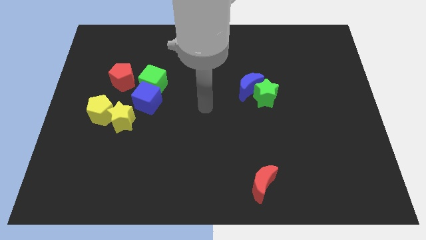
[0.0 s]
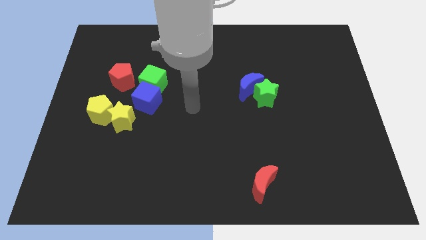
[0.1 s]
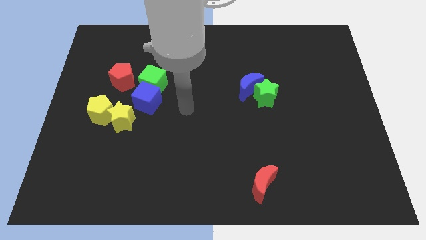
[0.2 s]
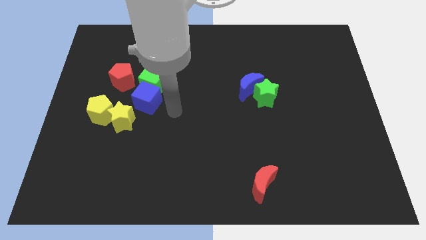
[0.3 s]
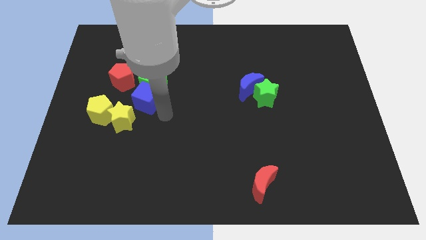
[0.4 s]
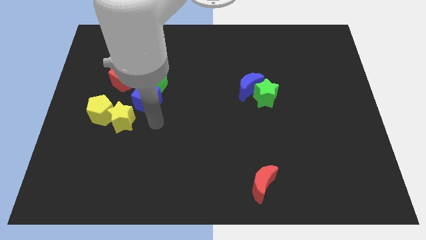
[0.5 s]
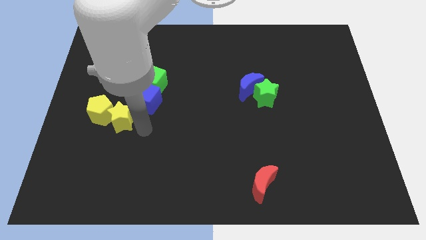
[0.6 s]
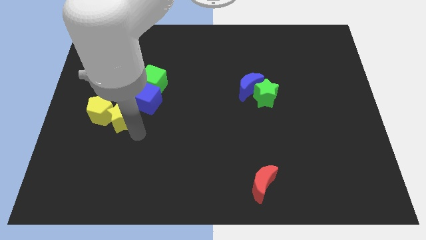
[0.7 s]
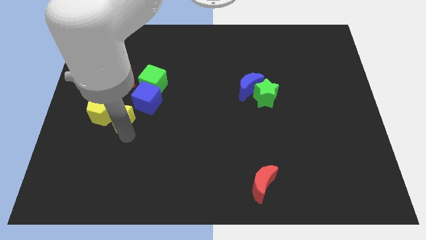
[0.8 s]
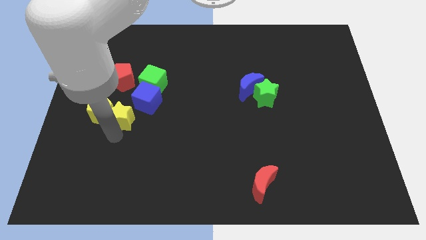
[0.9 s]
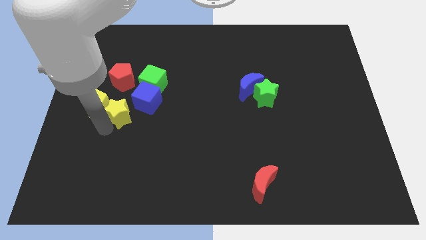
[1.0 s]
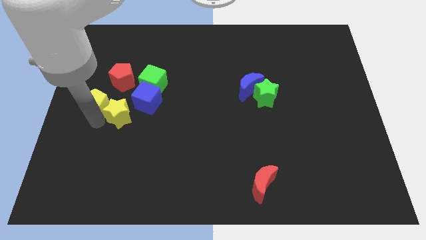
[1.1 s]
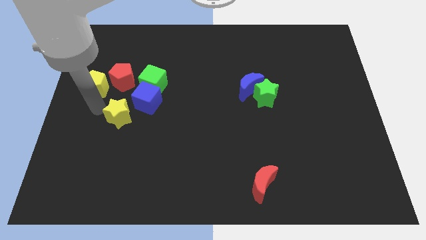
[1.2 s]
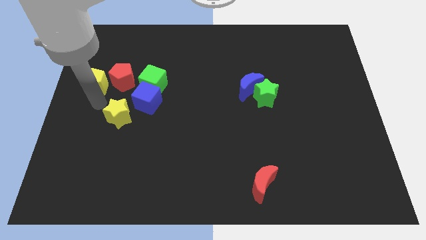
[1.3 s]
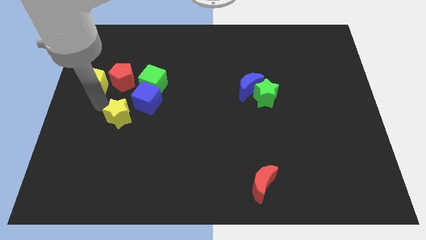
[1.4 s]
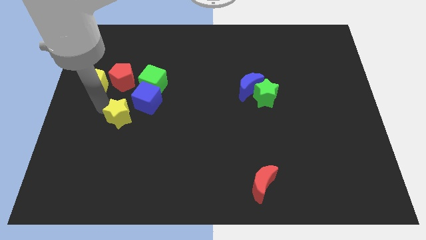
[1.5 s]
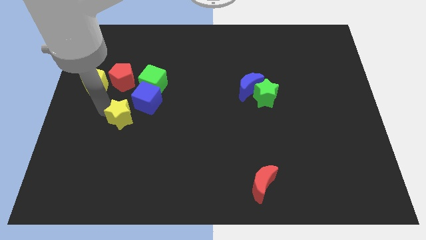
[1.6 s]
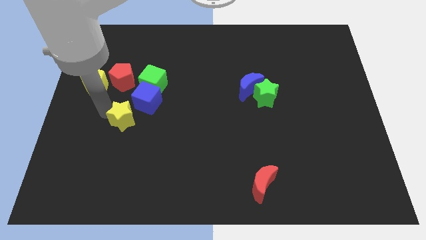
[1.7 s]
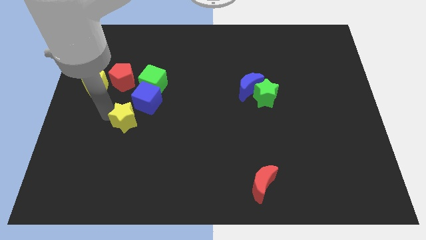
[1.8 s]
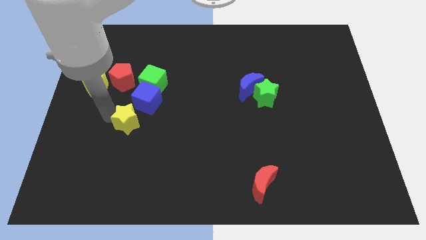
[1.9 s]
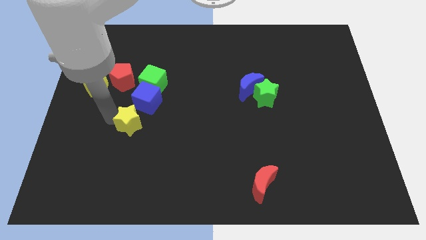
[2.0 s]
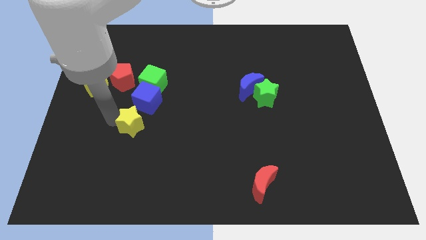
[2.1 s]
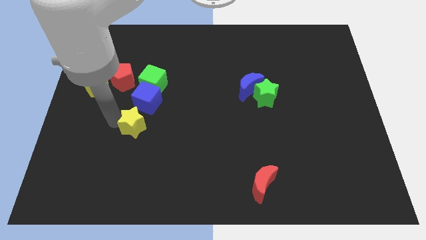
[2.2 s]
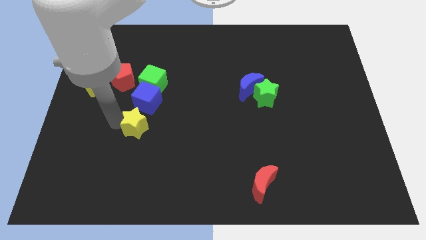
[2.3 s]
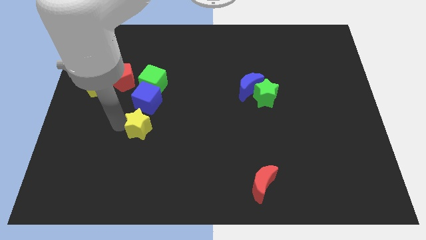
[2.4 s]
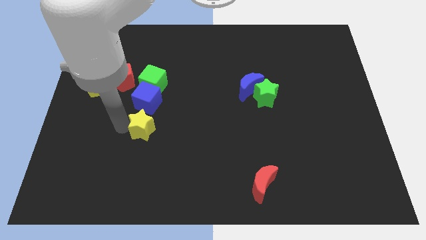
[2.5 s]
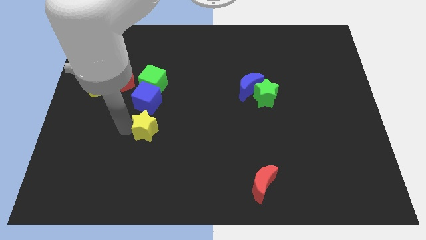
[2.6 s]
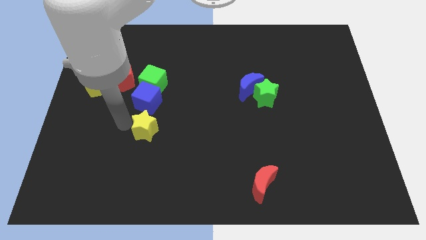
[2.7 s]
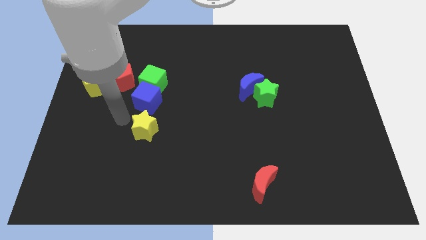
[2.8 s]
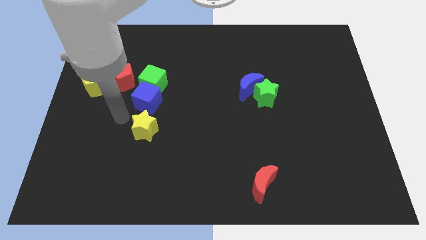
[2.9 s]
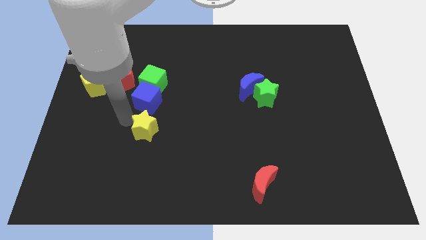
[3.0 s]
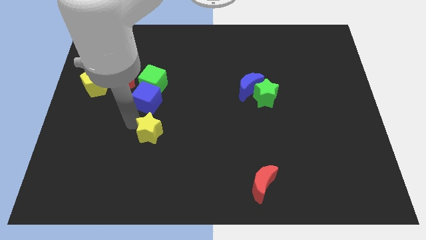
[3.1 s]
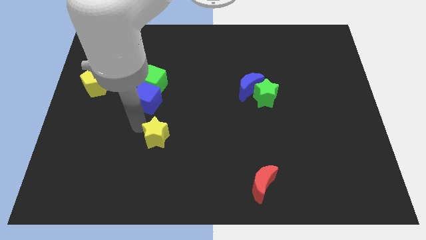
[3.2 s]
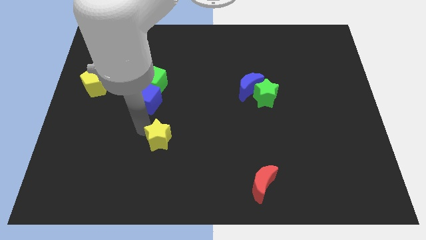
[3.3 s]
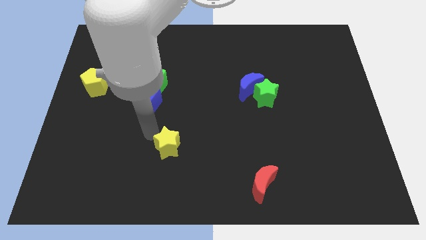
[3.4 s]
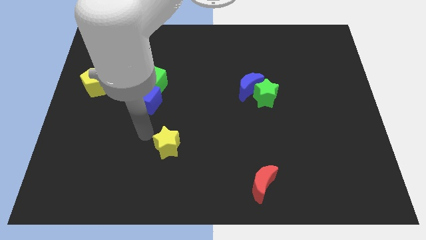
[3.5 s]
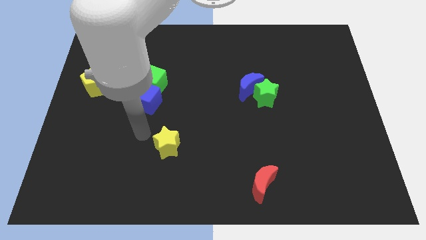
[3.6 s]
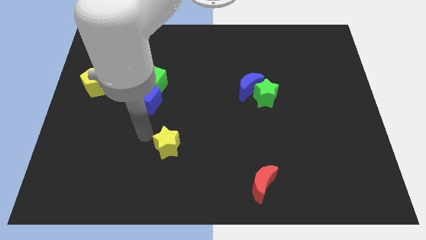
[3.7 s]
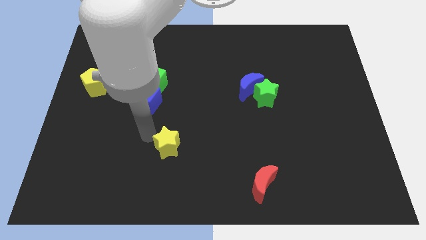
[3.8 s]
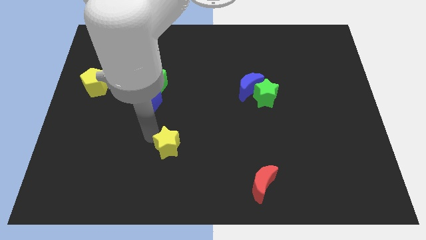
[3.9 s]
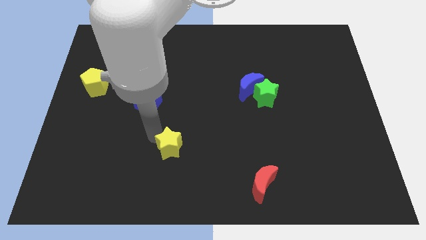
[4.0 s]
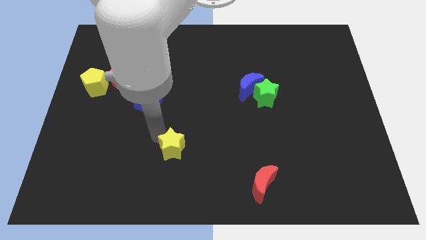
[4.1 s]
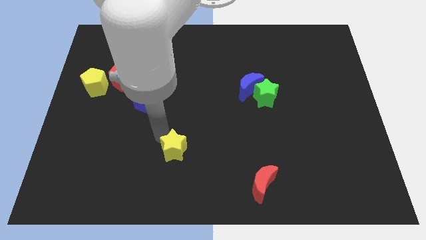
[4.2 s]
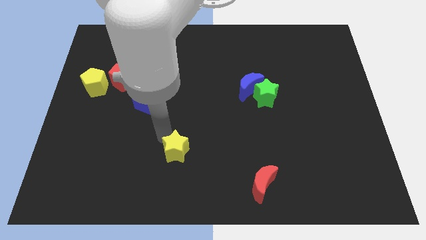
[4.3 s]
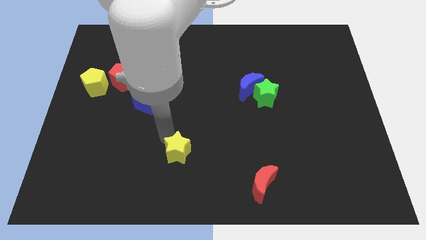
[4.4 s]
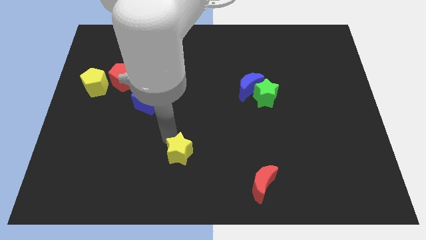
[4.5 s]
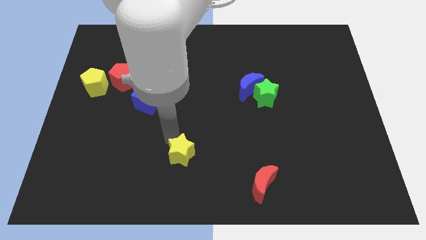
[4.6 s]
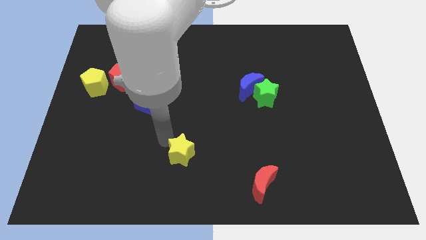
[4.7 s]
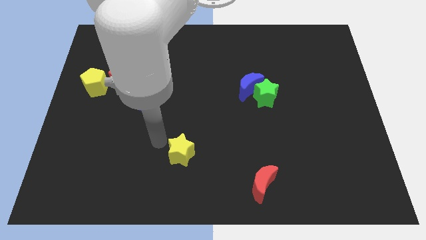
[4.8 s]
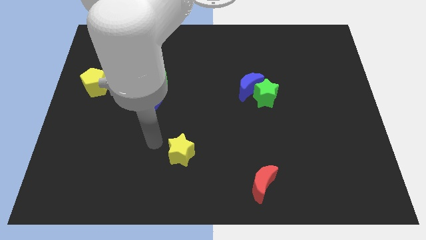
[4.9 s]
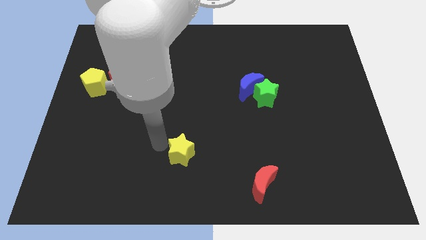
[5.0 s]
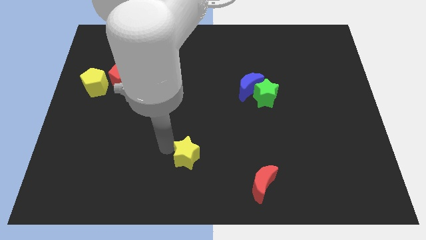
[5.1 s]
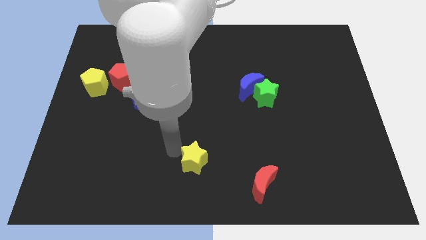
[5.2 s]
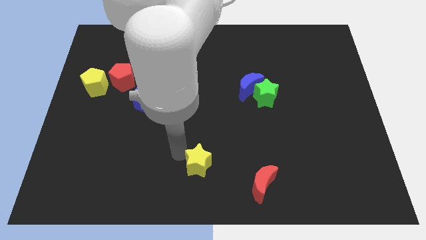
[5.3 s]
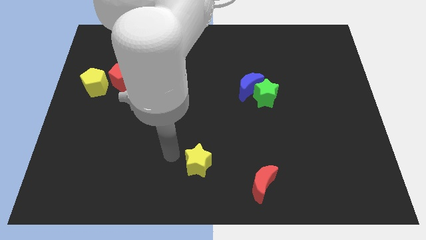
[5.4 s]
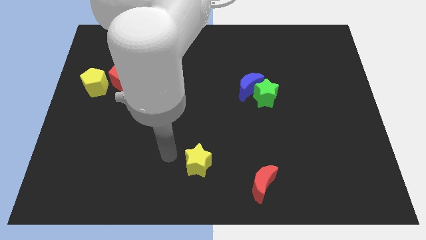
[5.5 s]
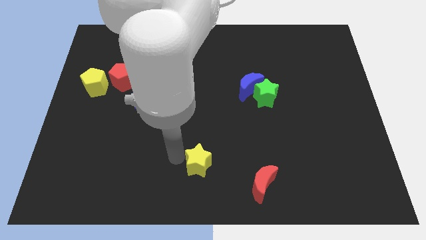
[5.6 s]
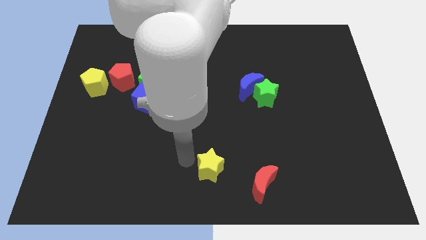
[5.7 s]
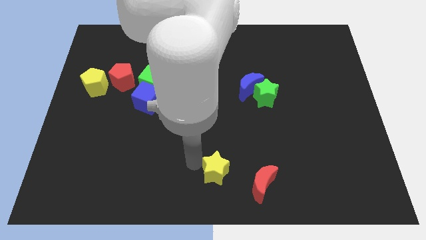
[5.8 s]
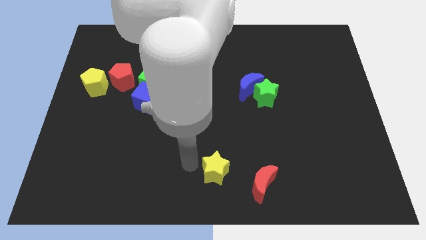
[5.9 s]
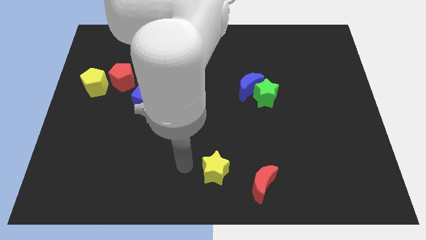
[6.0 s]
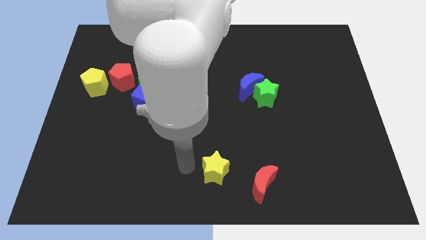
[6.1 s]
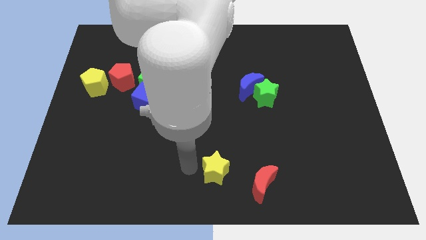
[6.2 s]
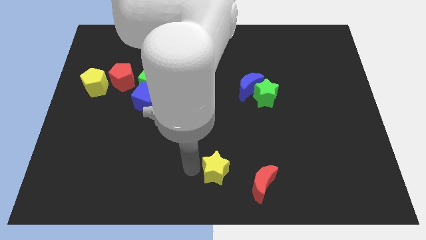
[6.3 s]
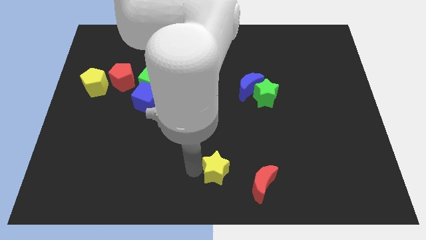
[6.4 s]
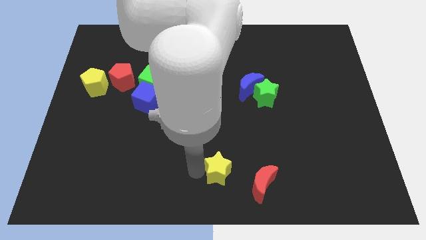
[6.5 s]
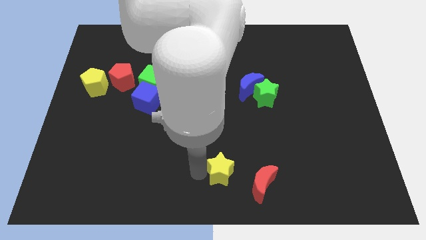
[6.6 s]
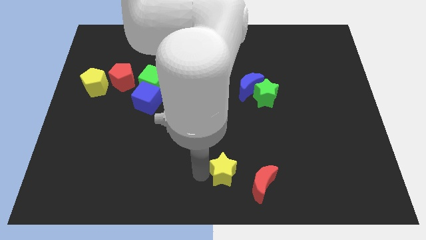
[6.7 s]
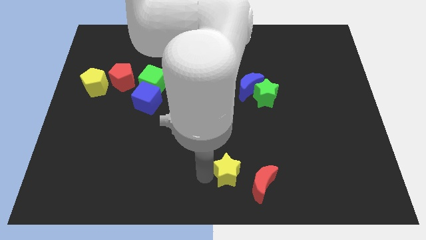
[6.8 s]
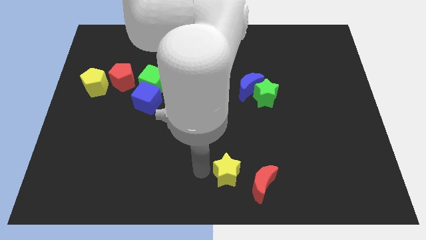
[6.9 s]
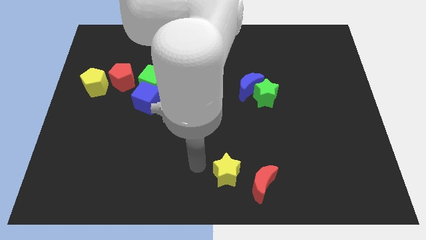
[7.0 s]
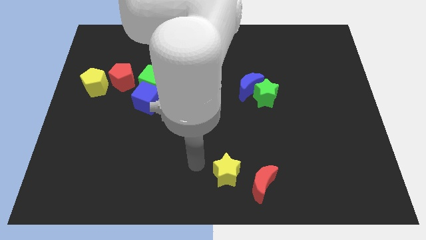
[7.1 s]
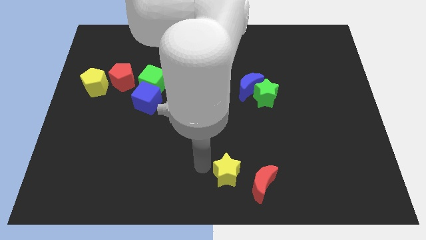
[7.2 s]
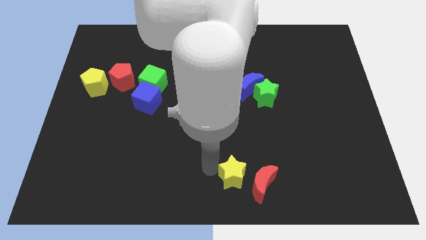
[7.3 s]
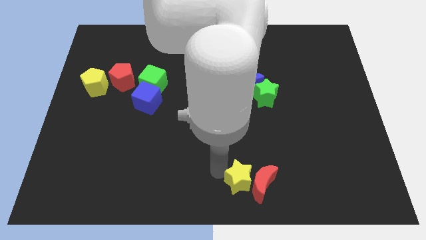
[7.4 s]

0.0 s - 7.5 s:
slide the yellow star next to the red moon
